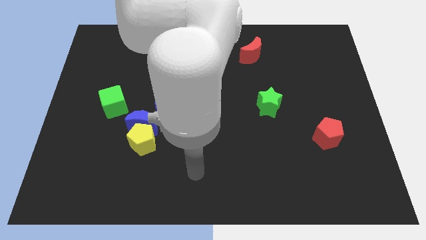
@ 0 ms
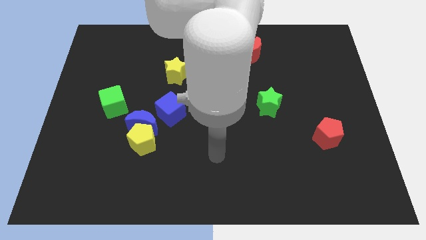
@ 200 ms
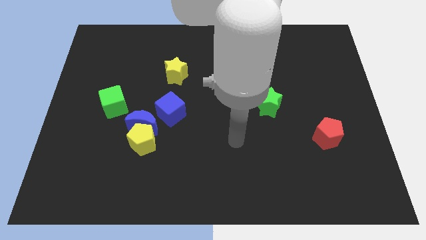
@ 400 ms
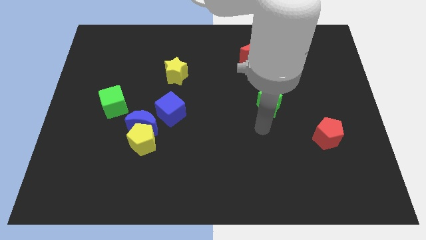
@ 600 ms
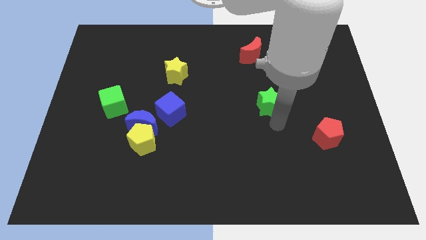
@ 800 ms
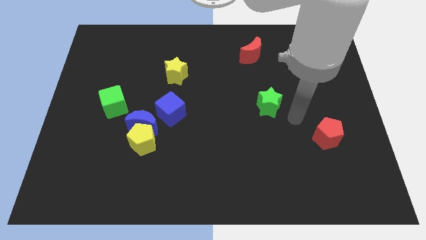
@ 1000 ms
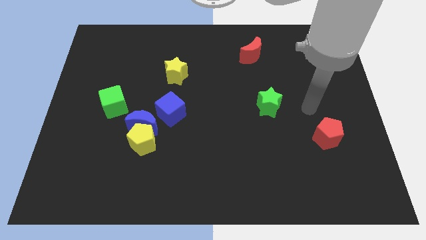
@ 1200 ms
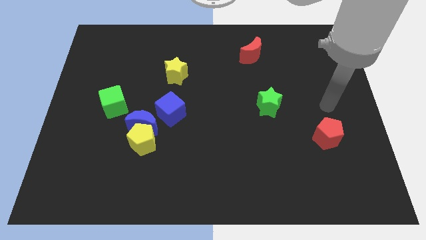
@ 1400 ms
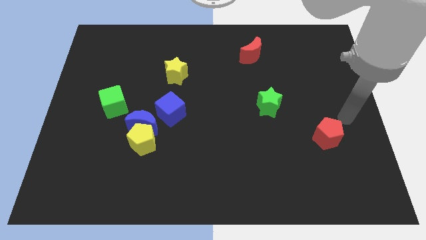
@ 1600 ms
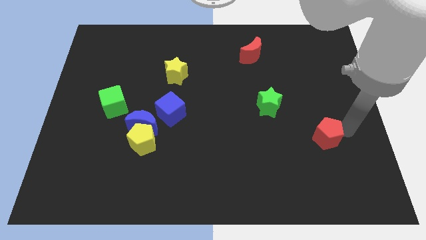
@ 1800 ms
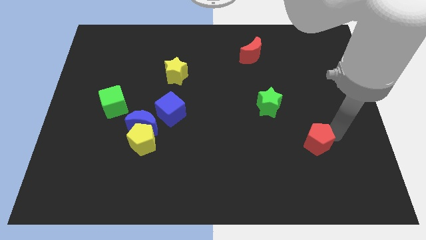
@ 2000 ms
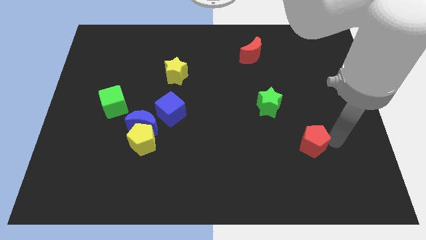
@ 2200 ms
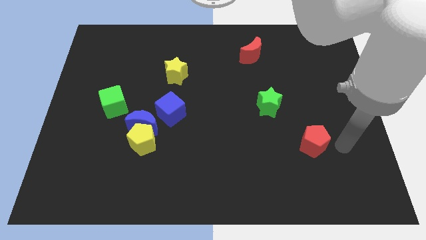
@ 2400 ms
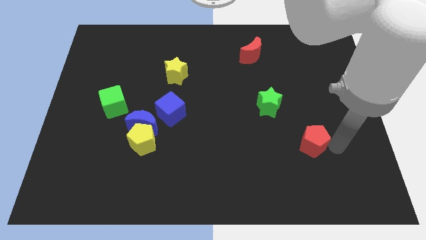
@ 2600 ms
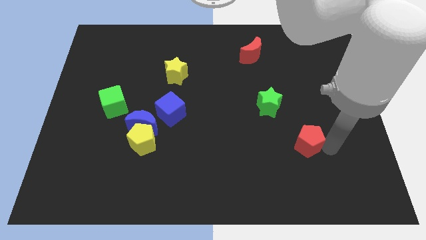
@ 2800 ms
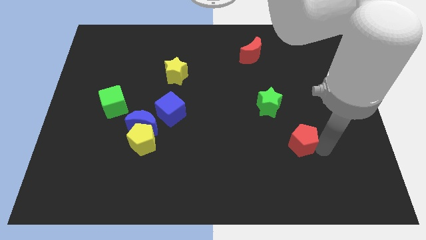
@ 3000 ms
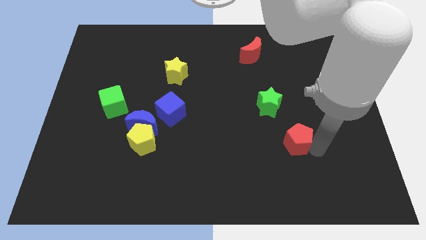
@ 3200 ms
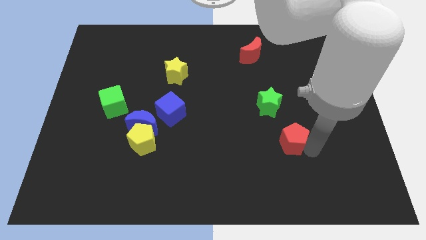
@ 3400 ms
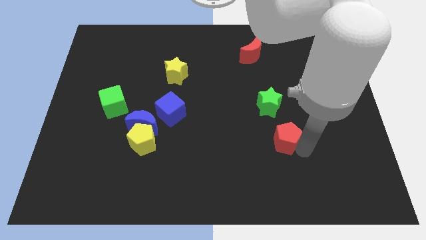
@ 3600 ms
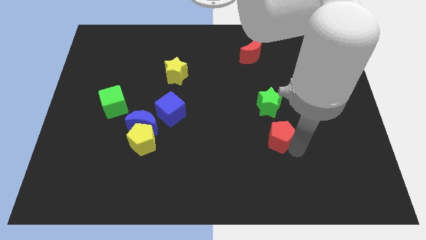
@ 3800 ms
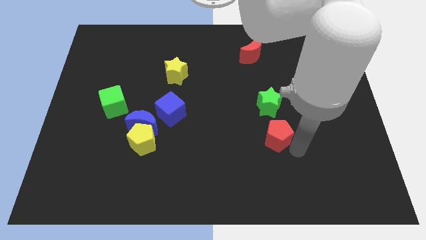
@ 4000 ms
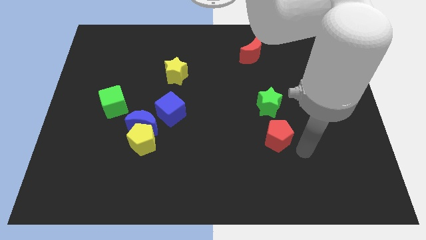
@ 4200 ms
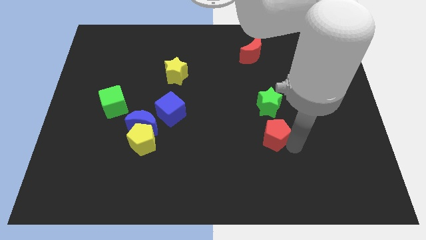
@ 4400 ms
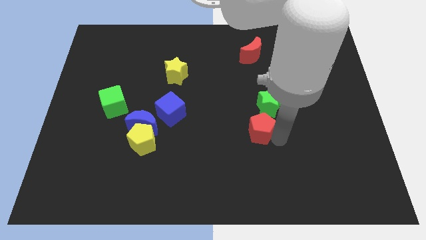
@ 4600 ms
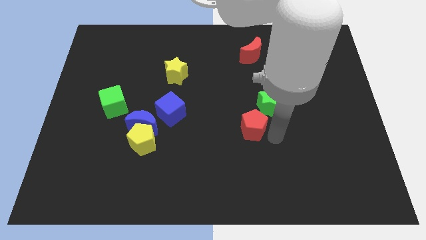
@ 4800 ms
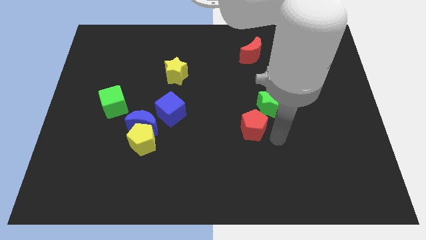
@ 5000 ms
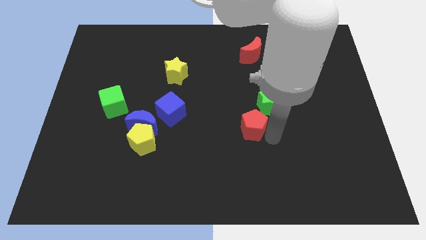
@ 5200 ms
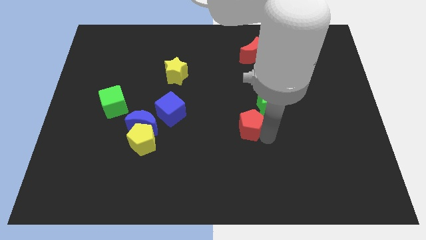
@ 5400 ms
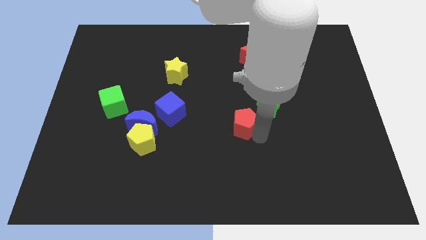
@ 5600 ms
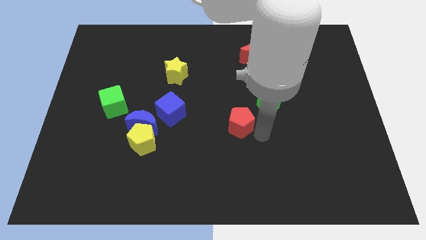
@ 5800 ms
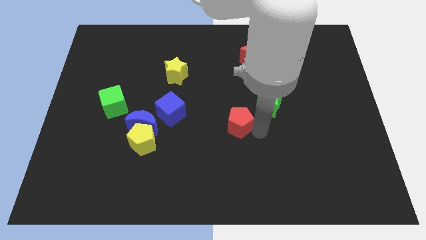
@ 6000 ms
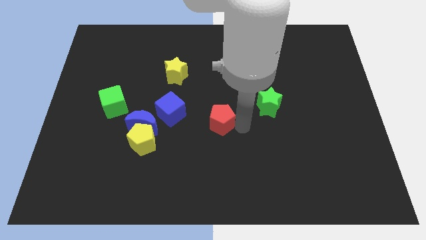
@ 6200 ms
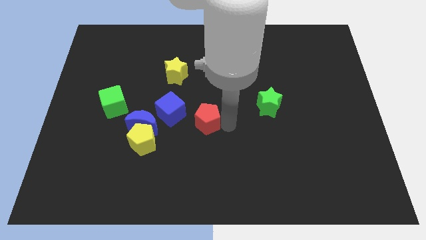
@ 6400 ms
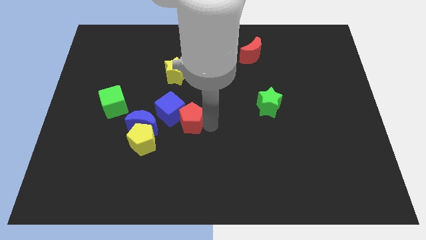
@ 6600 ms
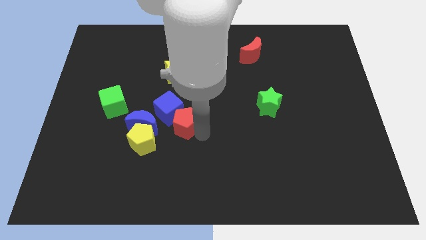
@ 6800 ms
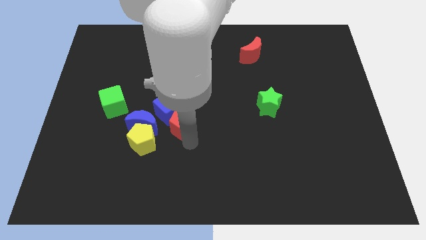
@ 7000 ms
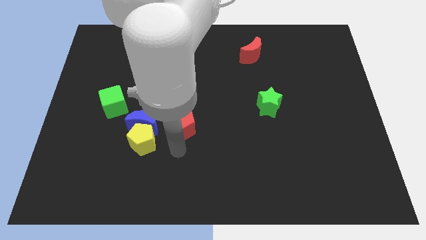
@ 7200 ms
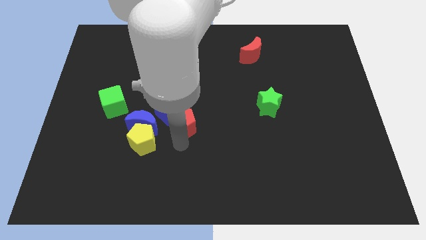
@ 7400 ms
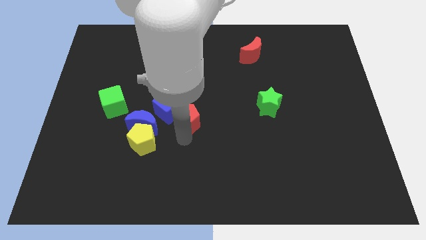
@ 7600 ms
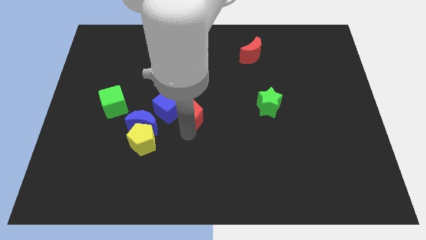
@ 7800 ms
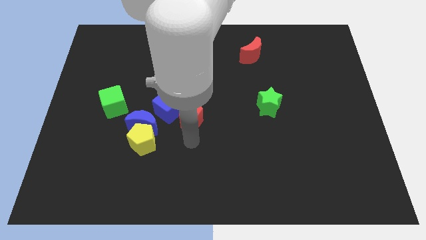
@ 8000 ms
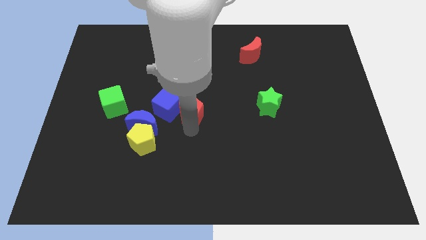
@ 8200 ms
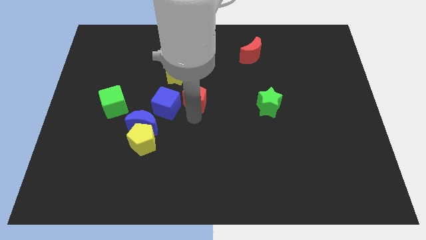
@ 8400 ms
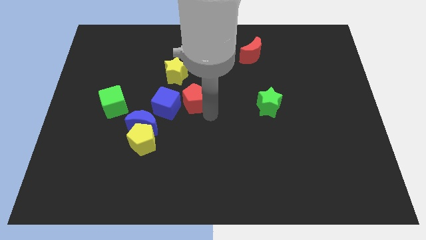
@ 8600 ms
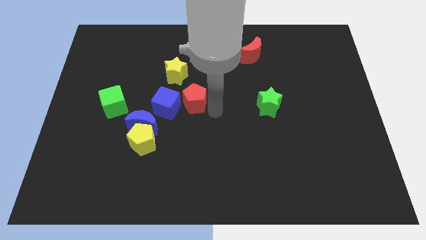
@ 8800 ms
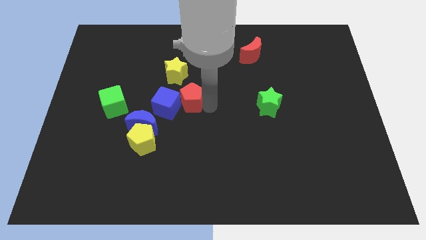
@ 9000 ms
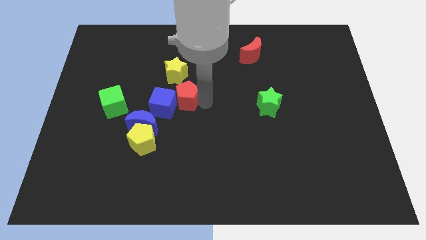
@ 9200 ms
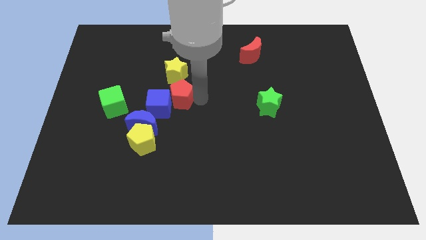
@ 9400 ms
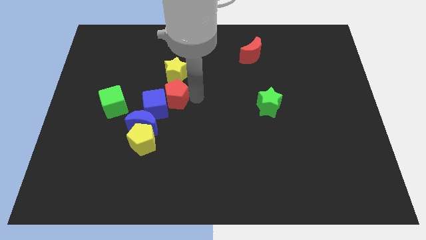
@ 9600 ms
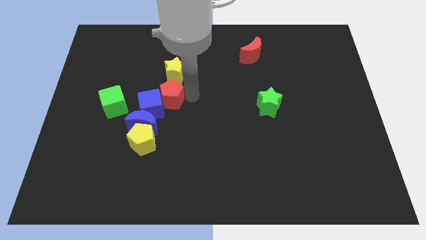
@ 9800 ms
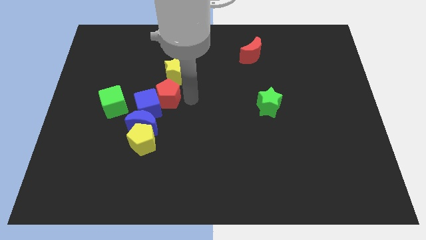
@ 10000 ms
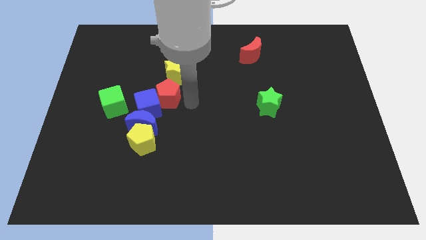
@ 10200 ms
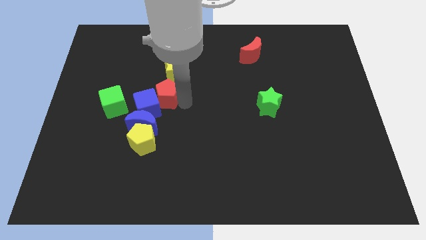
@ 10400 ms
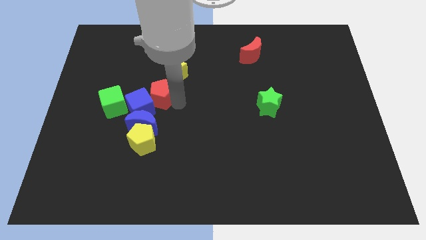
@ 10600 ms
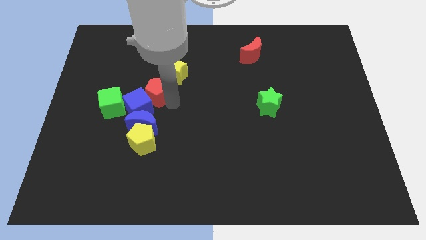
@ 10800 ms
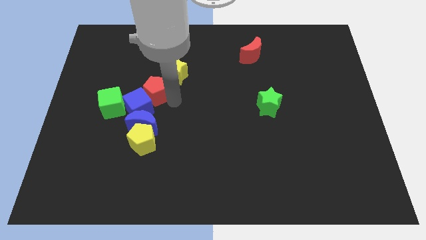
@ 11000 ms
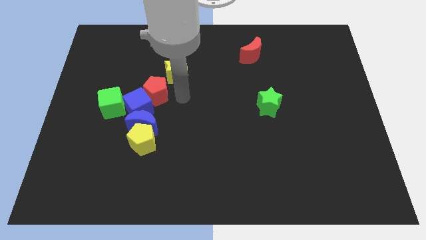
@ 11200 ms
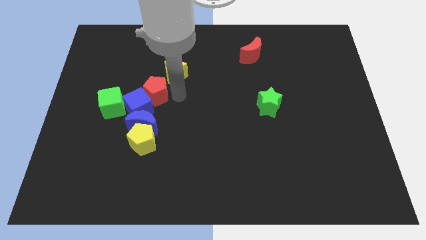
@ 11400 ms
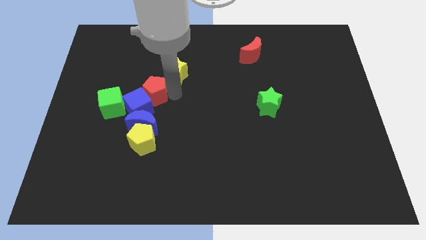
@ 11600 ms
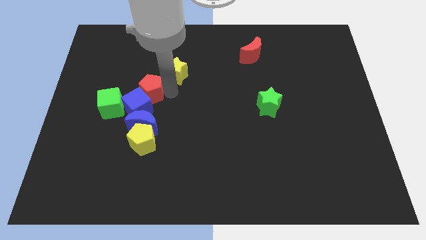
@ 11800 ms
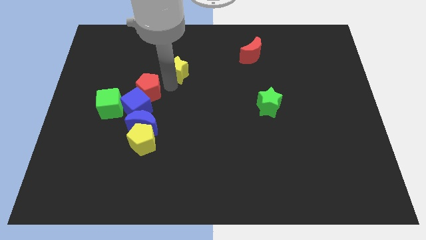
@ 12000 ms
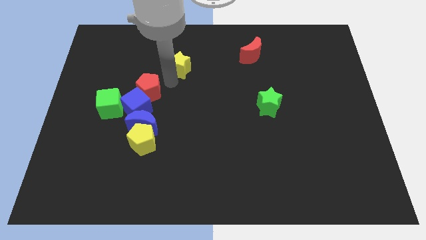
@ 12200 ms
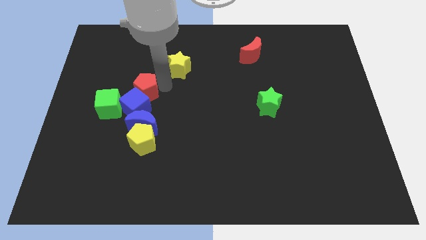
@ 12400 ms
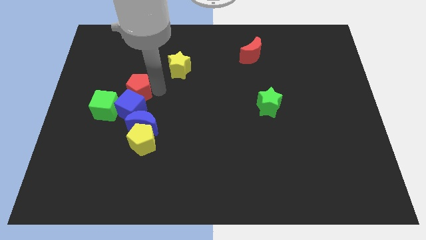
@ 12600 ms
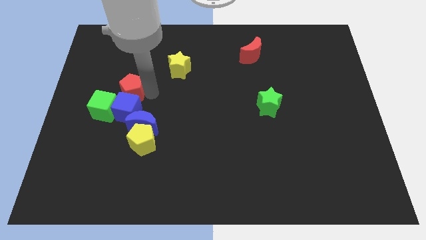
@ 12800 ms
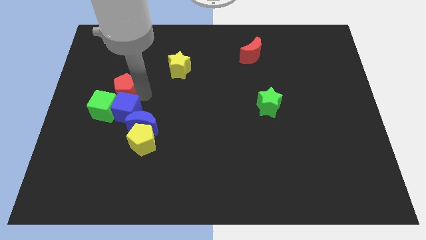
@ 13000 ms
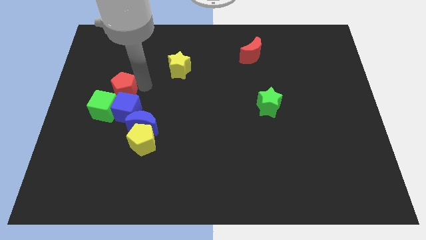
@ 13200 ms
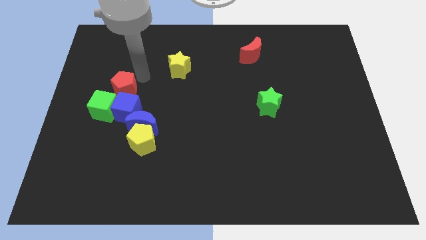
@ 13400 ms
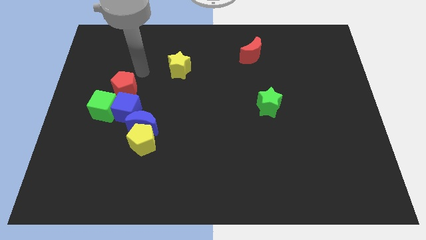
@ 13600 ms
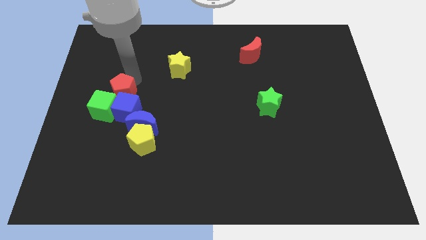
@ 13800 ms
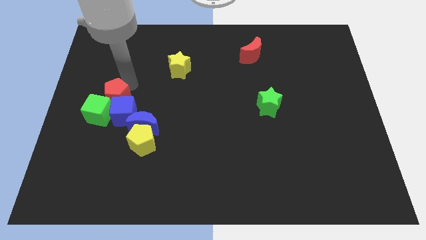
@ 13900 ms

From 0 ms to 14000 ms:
put the red pentagon to the green cube
